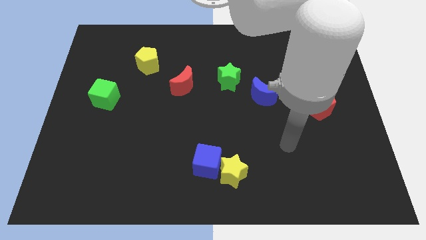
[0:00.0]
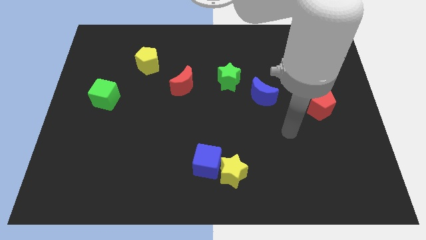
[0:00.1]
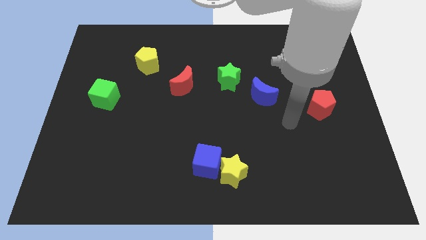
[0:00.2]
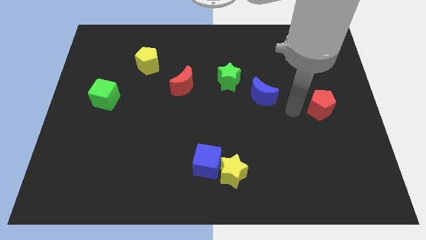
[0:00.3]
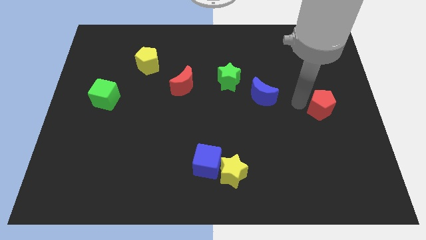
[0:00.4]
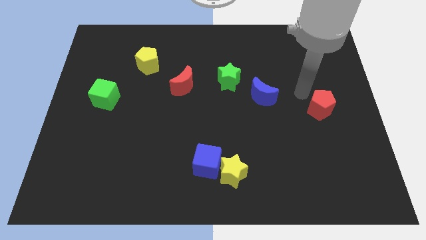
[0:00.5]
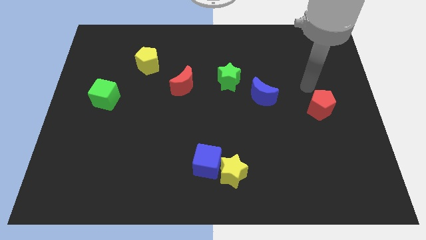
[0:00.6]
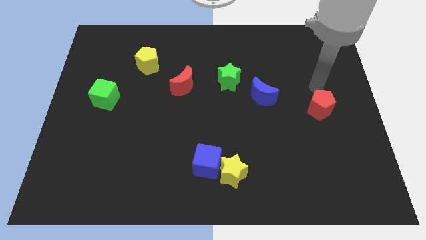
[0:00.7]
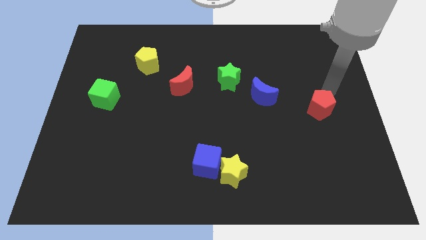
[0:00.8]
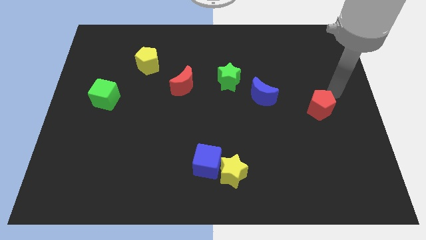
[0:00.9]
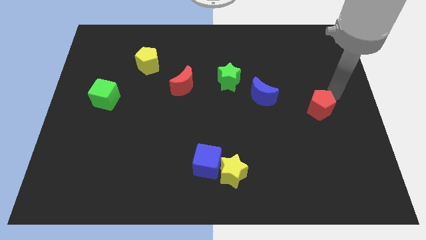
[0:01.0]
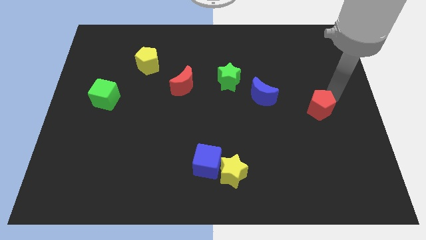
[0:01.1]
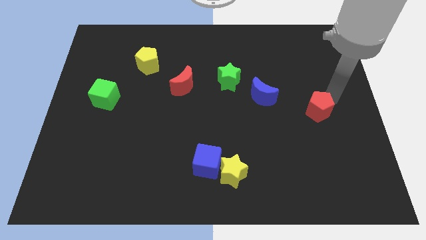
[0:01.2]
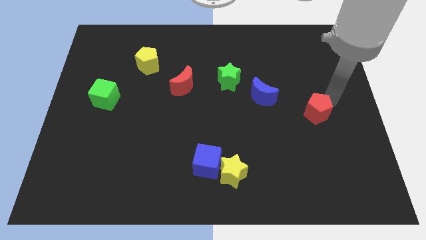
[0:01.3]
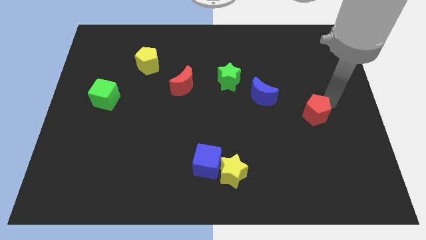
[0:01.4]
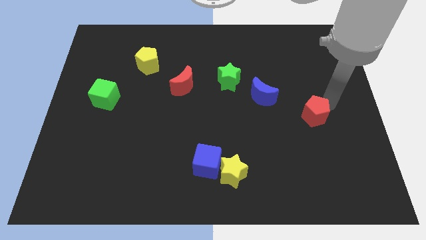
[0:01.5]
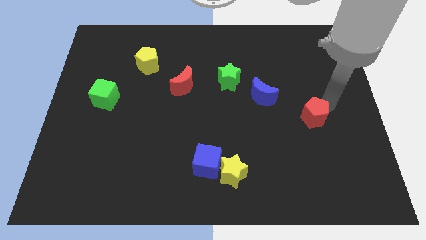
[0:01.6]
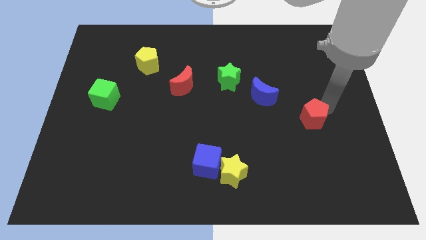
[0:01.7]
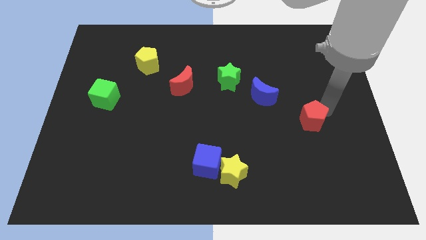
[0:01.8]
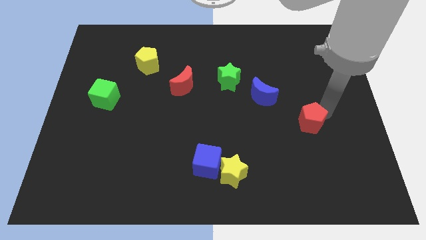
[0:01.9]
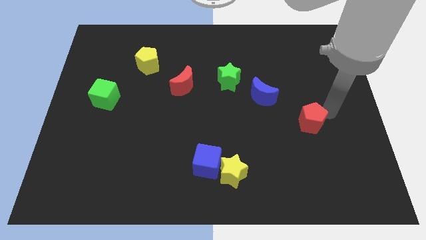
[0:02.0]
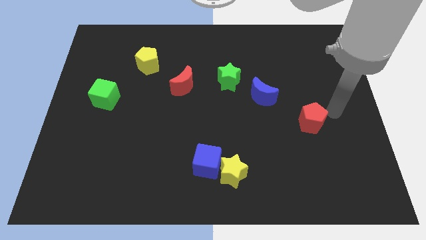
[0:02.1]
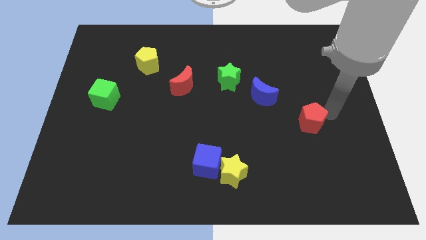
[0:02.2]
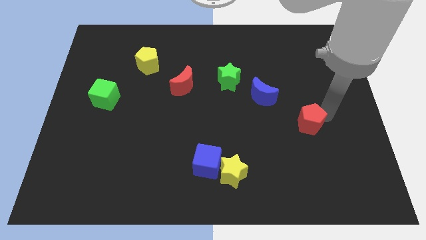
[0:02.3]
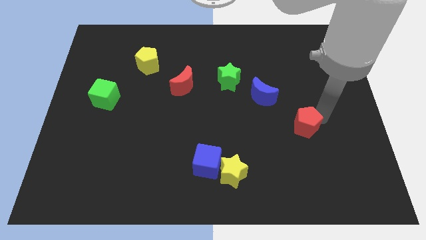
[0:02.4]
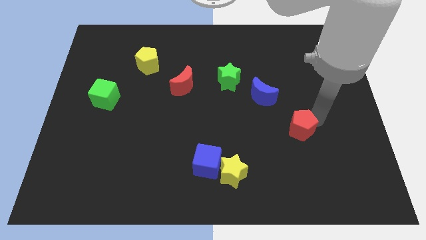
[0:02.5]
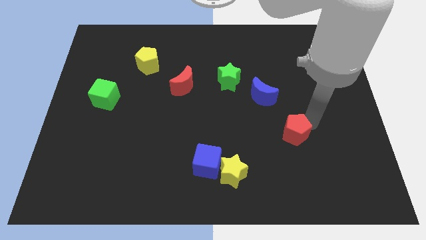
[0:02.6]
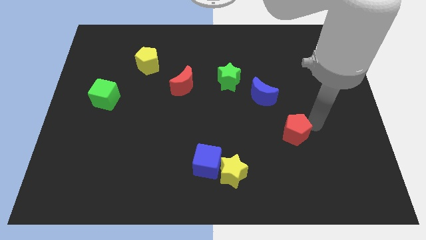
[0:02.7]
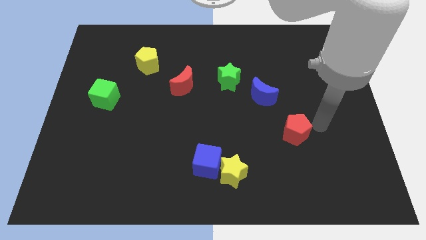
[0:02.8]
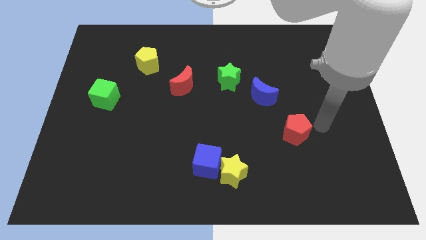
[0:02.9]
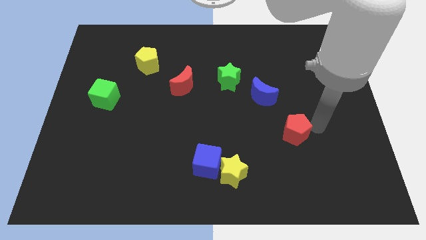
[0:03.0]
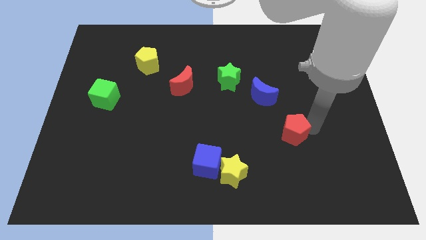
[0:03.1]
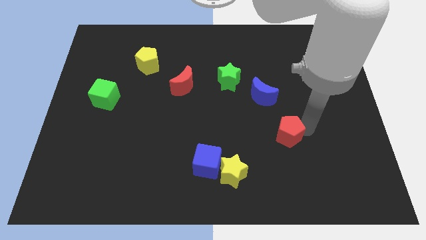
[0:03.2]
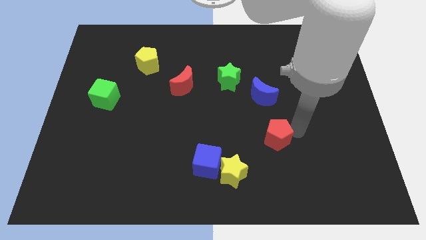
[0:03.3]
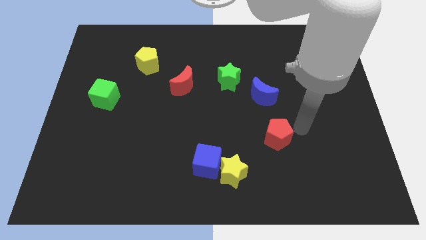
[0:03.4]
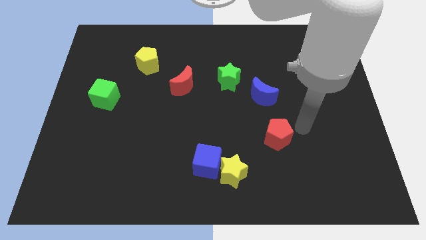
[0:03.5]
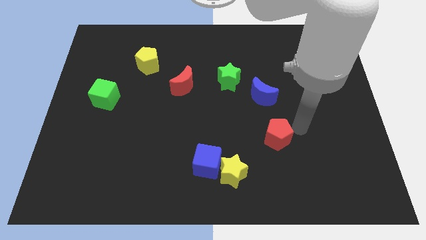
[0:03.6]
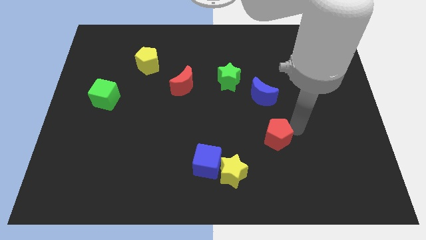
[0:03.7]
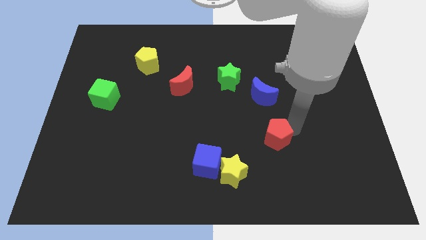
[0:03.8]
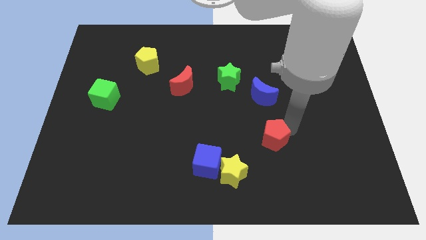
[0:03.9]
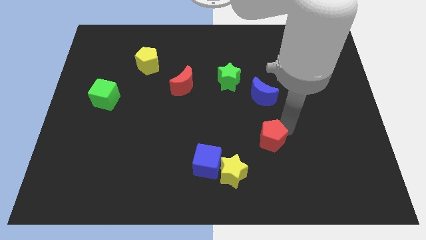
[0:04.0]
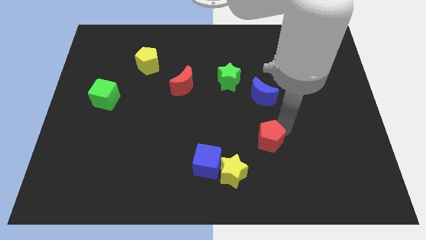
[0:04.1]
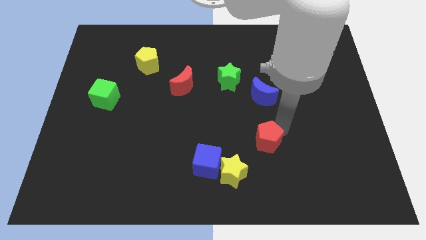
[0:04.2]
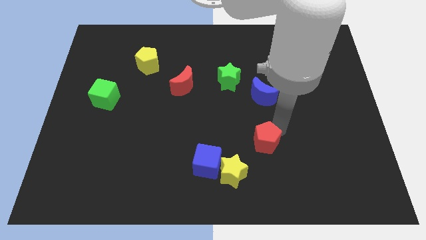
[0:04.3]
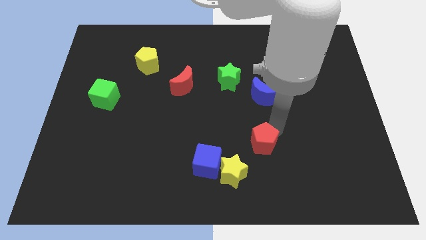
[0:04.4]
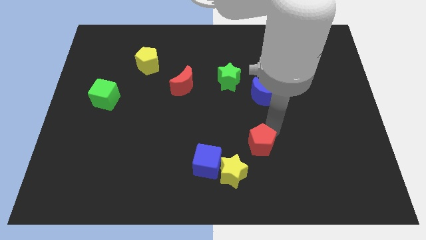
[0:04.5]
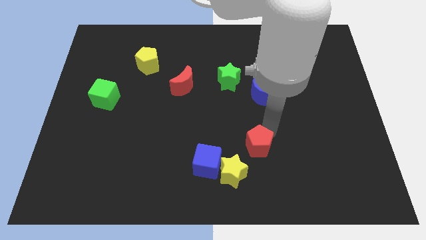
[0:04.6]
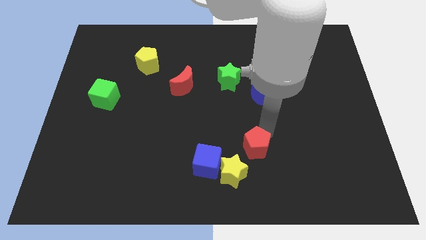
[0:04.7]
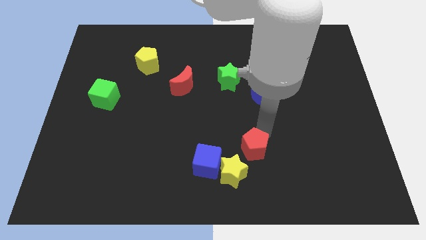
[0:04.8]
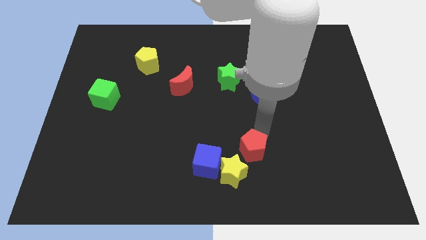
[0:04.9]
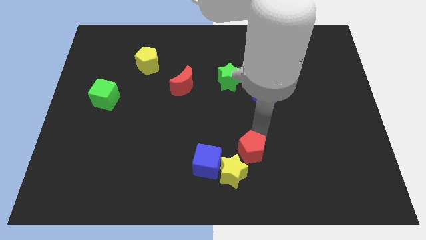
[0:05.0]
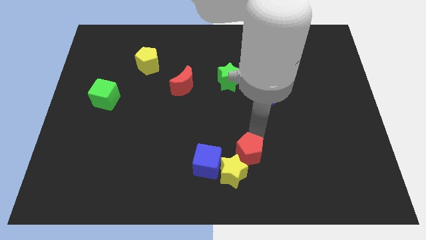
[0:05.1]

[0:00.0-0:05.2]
push the red pentagon close to the yellow star

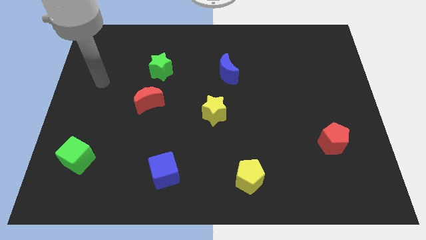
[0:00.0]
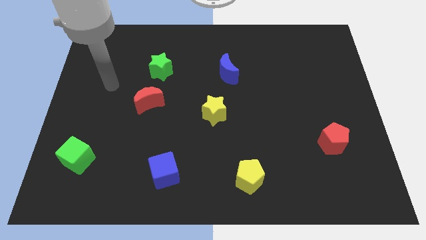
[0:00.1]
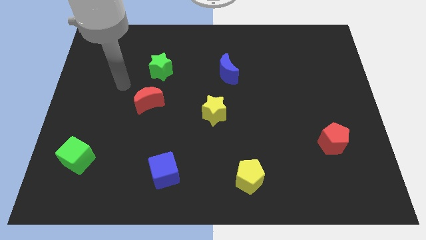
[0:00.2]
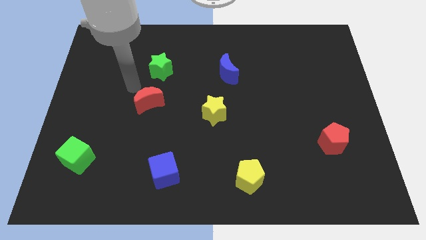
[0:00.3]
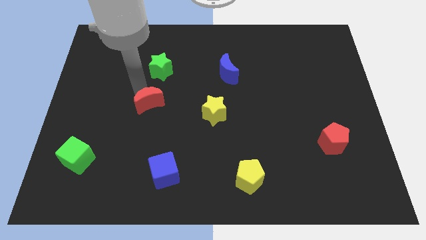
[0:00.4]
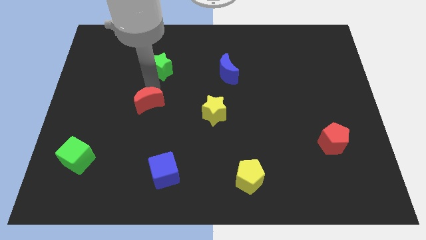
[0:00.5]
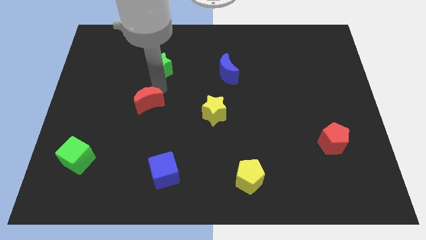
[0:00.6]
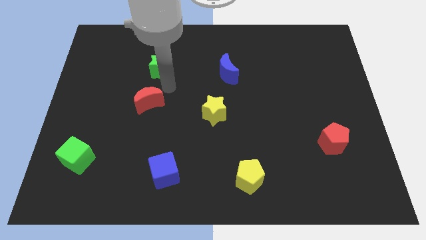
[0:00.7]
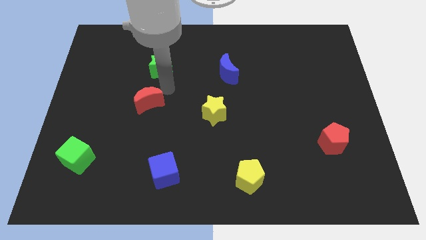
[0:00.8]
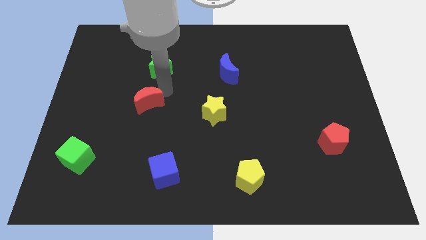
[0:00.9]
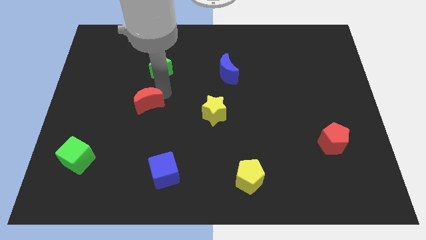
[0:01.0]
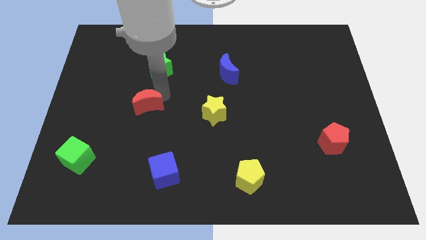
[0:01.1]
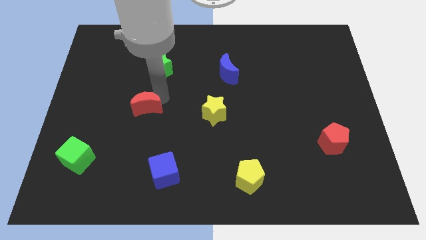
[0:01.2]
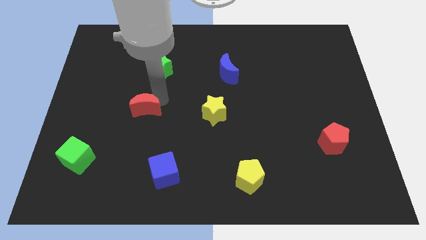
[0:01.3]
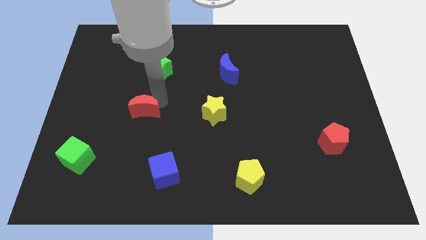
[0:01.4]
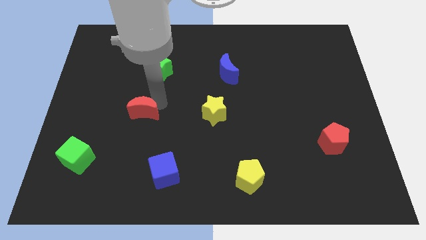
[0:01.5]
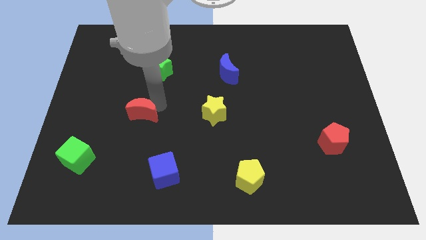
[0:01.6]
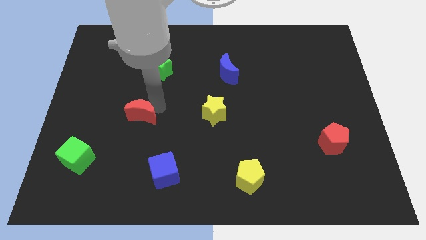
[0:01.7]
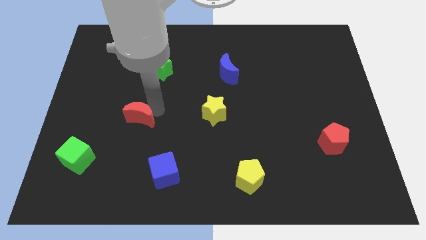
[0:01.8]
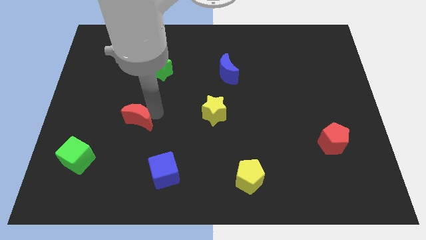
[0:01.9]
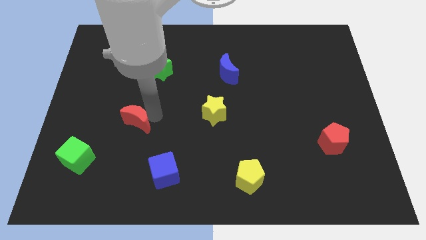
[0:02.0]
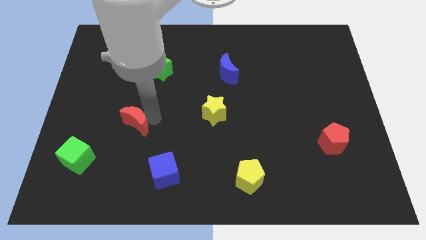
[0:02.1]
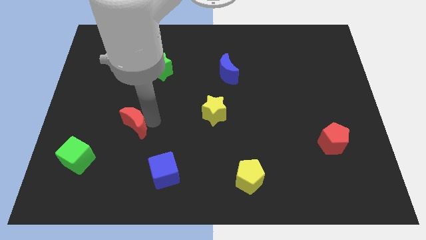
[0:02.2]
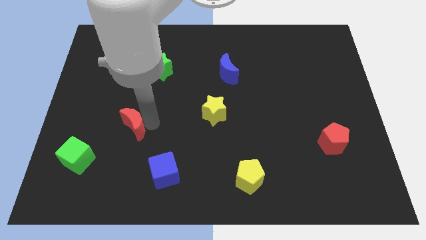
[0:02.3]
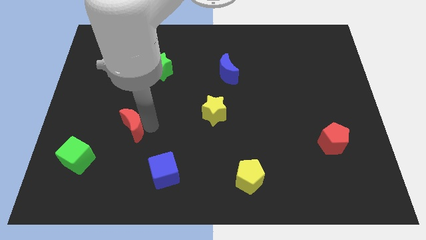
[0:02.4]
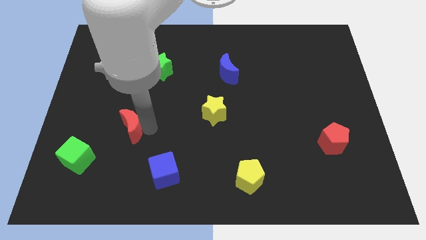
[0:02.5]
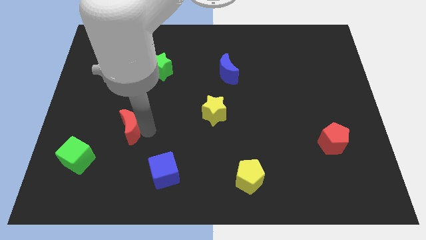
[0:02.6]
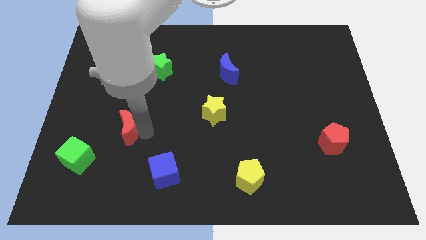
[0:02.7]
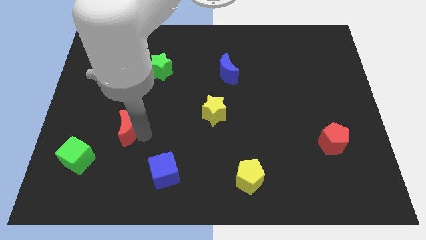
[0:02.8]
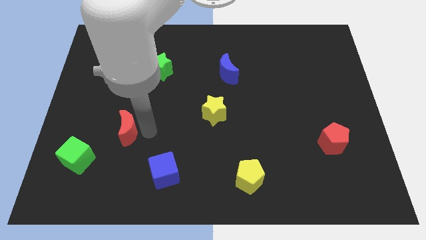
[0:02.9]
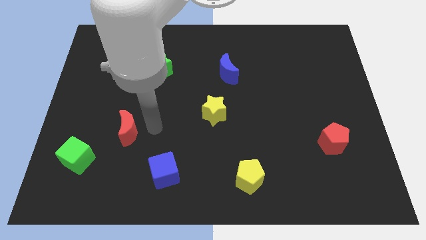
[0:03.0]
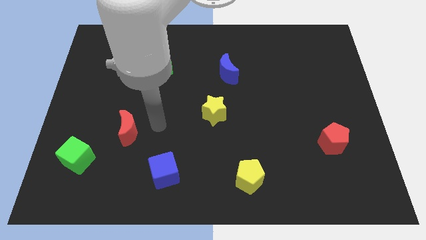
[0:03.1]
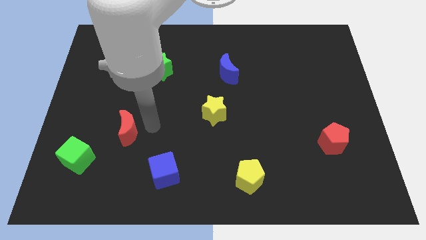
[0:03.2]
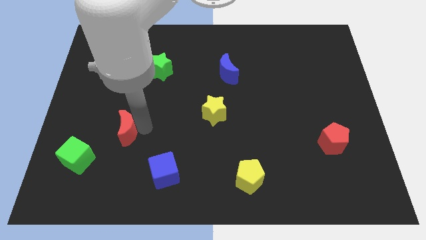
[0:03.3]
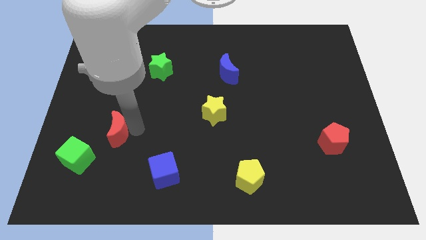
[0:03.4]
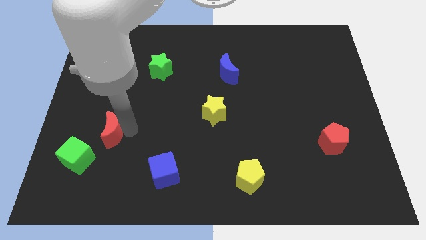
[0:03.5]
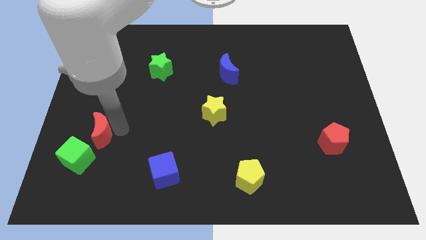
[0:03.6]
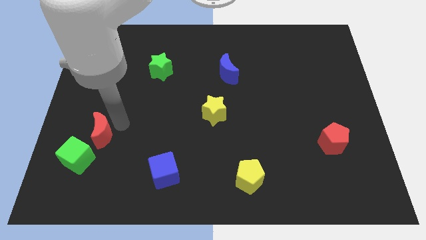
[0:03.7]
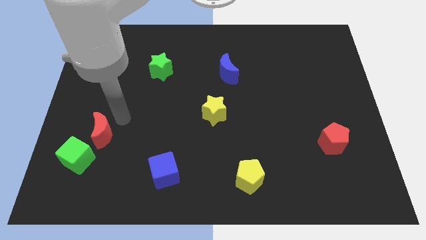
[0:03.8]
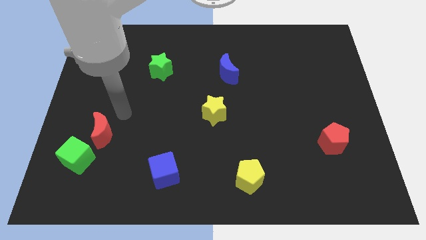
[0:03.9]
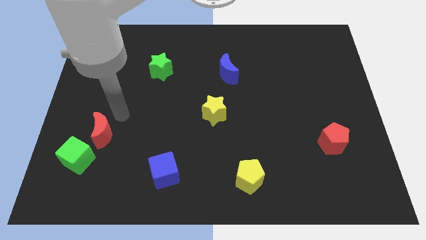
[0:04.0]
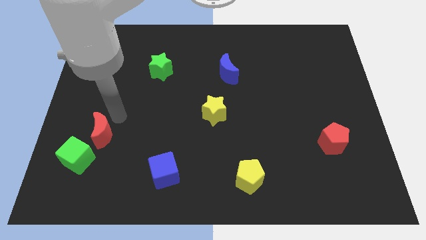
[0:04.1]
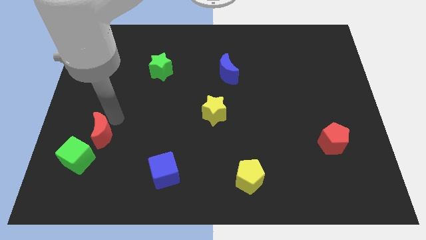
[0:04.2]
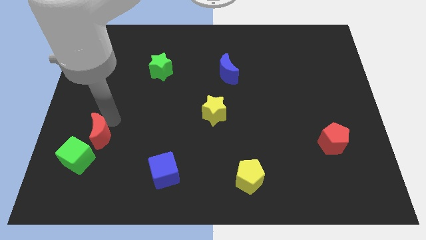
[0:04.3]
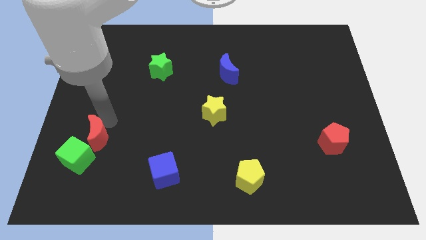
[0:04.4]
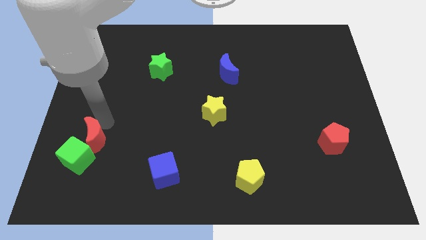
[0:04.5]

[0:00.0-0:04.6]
put the red moon next to the green cube
